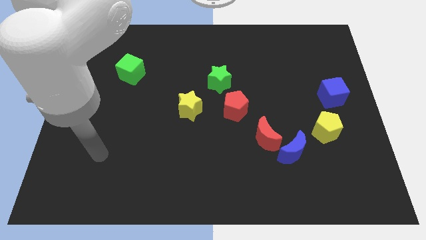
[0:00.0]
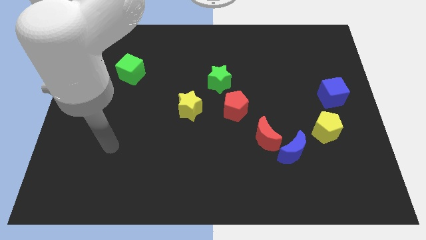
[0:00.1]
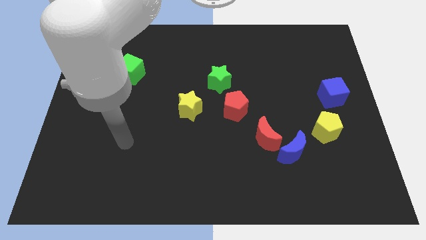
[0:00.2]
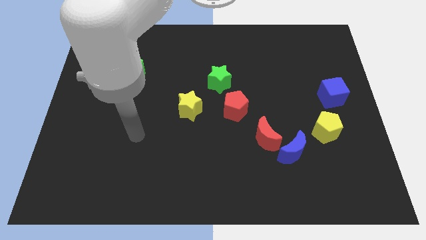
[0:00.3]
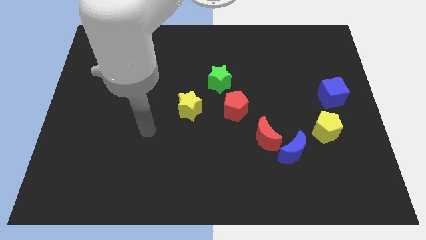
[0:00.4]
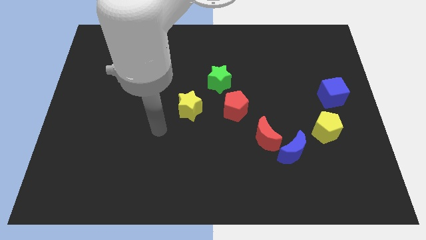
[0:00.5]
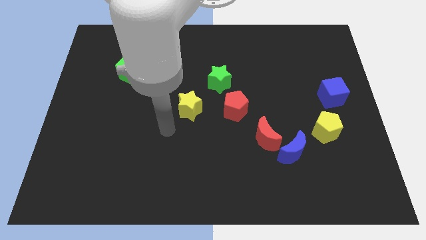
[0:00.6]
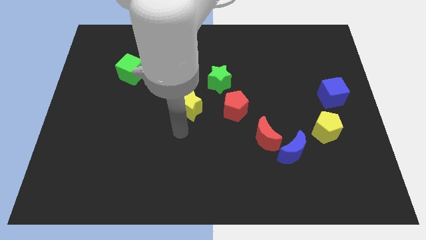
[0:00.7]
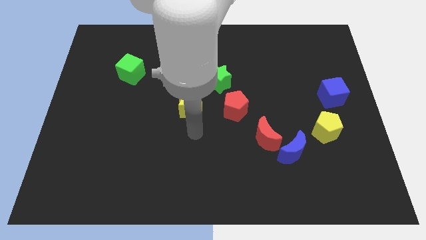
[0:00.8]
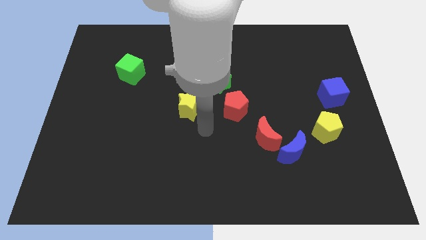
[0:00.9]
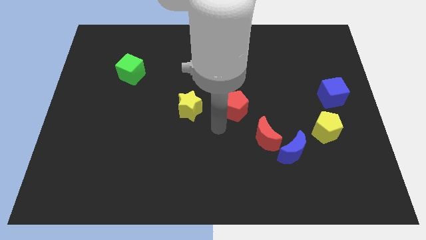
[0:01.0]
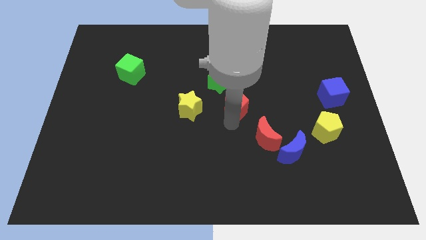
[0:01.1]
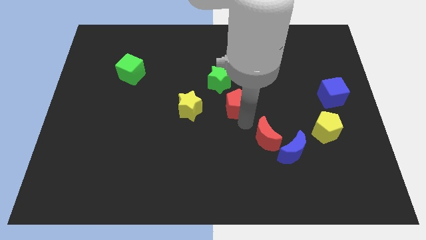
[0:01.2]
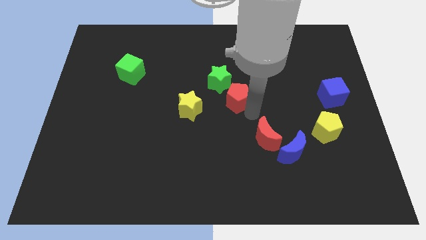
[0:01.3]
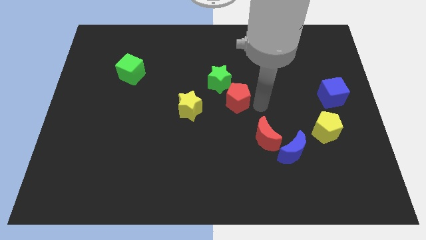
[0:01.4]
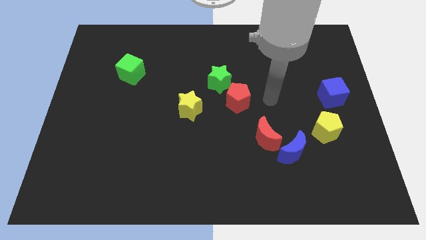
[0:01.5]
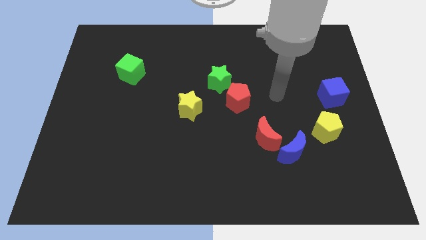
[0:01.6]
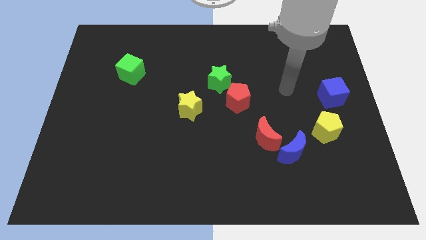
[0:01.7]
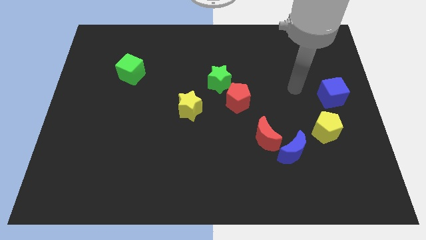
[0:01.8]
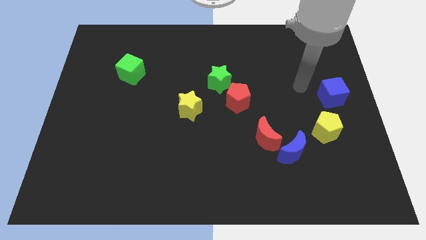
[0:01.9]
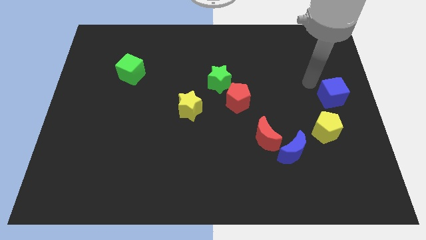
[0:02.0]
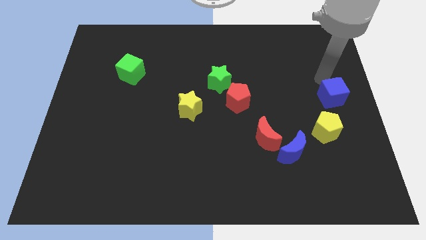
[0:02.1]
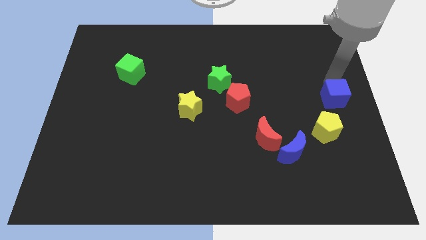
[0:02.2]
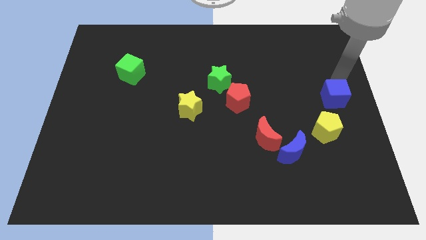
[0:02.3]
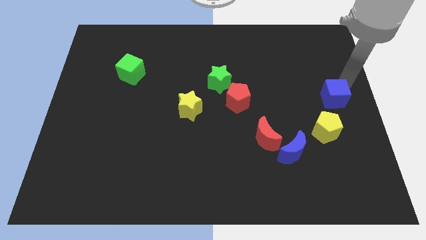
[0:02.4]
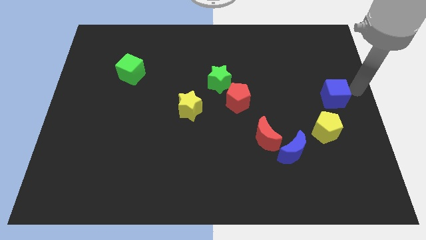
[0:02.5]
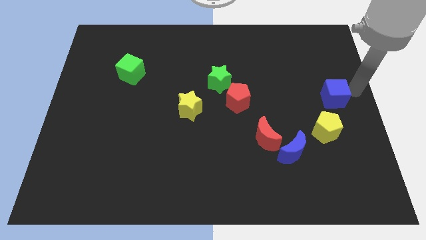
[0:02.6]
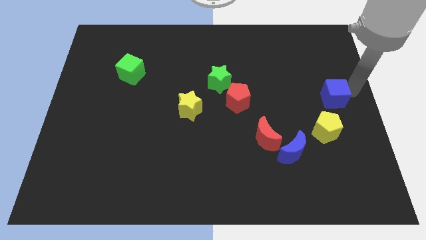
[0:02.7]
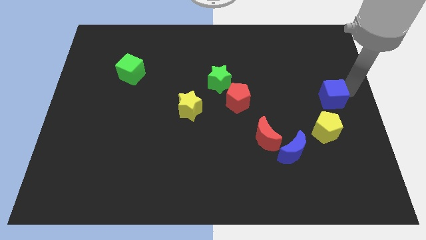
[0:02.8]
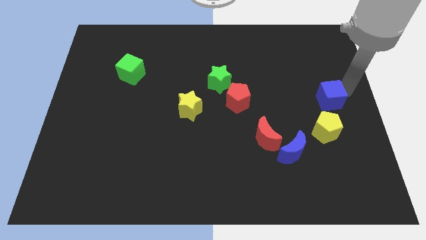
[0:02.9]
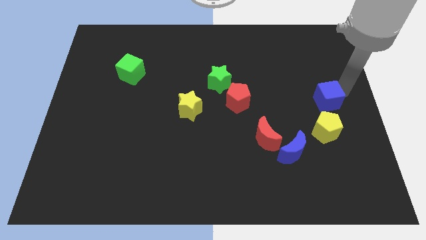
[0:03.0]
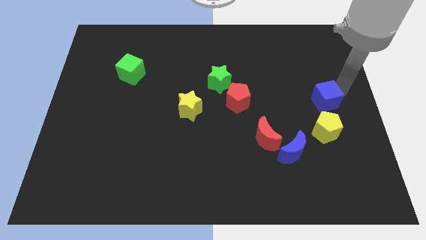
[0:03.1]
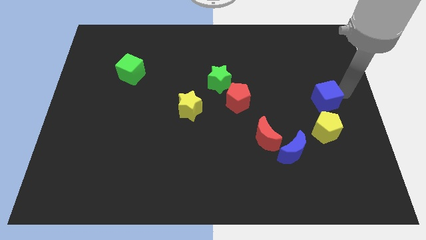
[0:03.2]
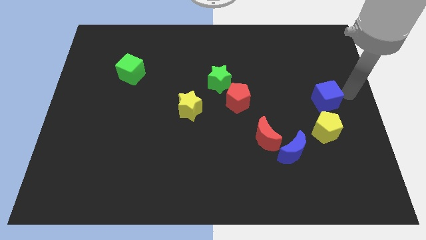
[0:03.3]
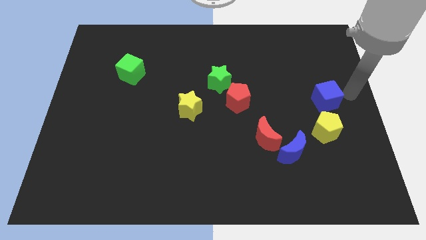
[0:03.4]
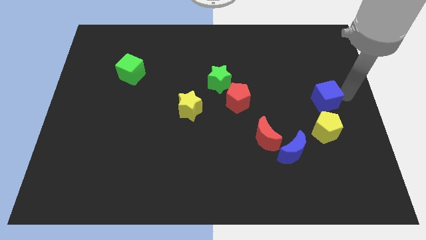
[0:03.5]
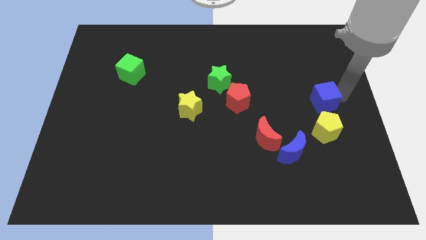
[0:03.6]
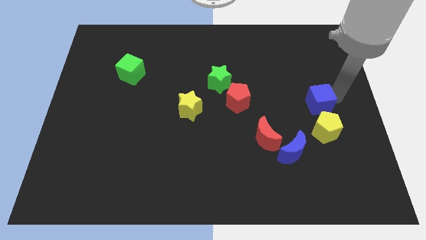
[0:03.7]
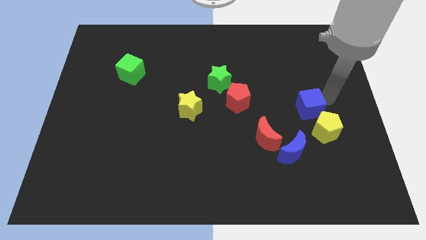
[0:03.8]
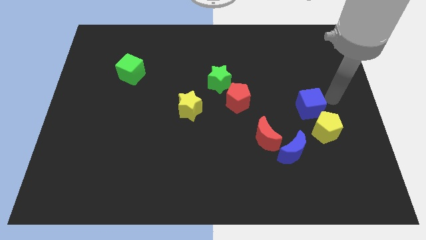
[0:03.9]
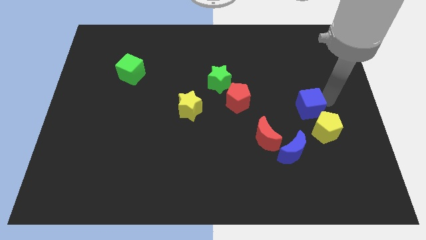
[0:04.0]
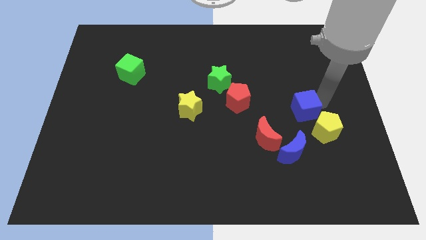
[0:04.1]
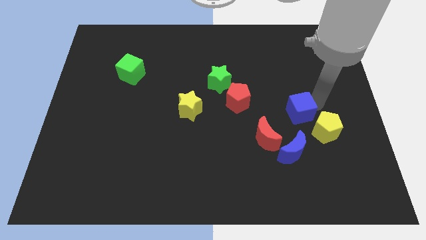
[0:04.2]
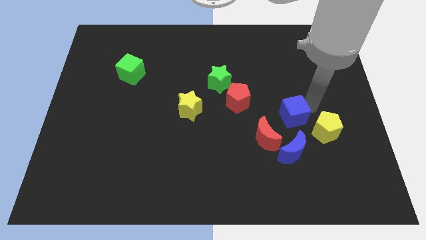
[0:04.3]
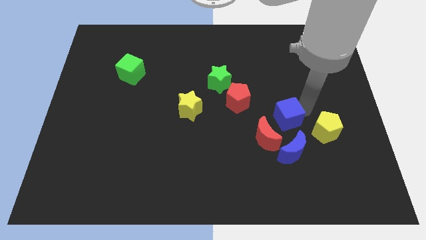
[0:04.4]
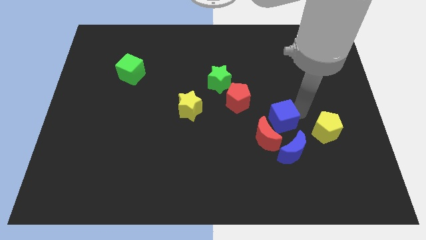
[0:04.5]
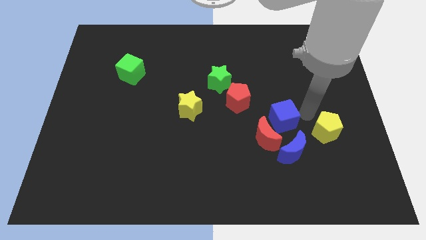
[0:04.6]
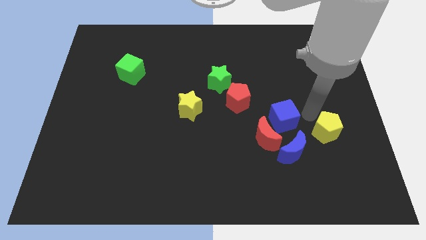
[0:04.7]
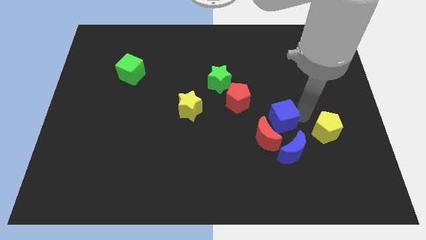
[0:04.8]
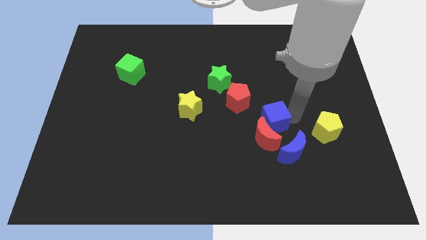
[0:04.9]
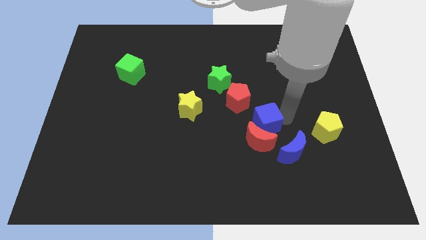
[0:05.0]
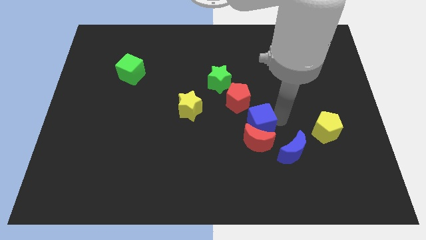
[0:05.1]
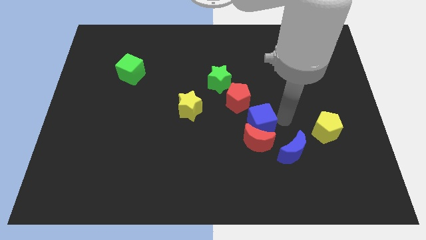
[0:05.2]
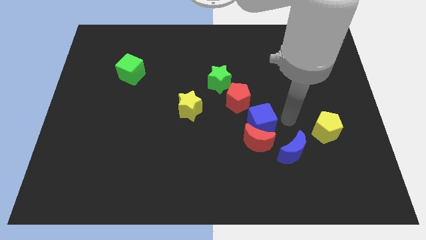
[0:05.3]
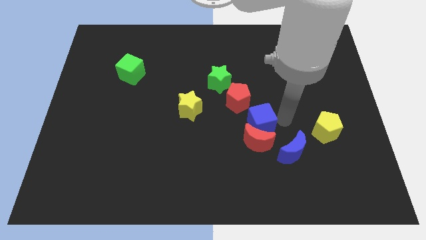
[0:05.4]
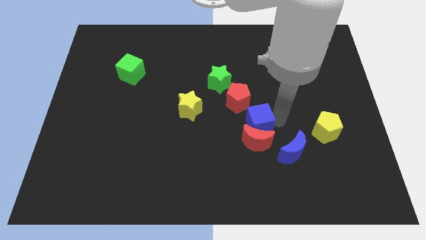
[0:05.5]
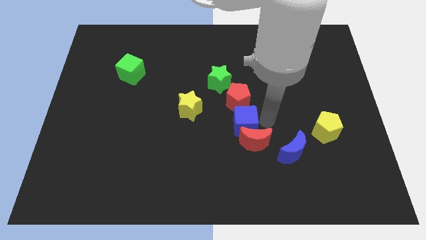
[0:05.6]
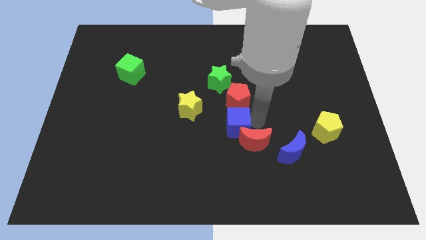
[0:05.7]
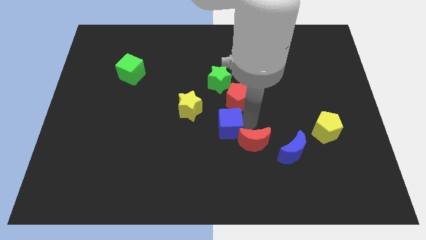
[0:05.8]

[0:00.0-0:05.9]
put the blue cube diagonally down and to the right of the yellow star
